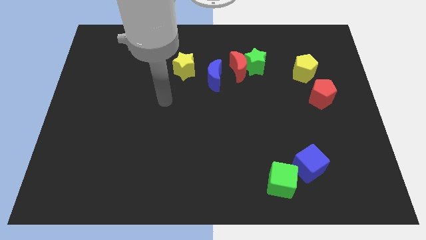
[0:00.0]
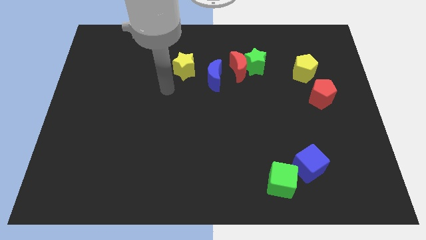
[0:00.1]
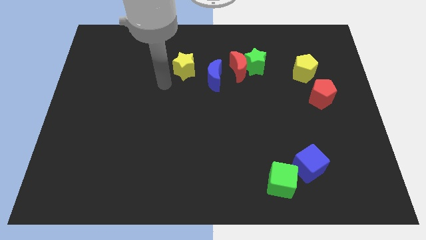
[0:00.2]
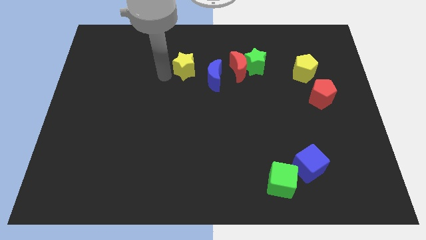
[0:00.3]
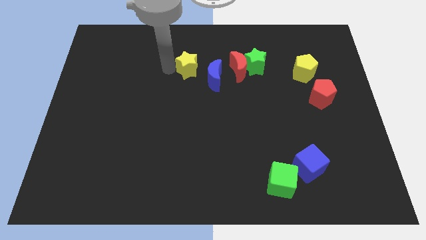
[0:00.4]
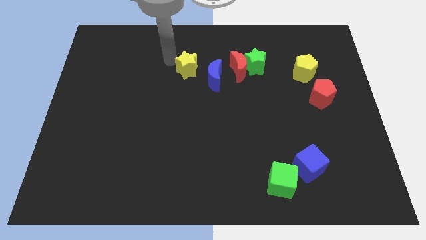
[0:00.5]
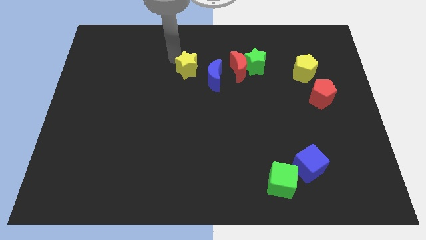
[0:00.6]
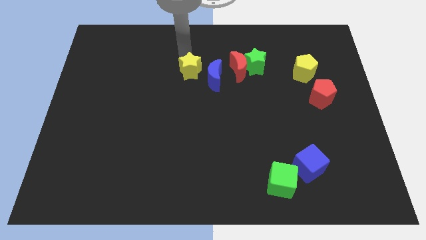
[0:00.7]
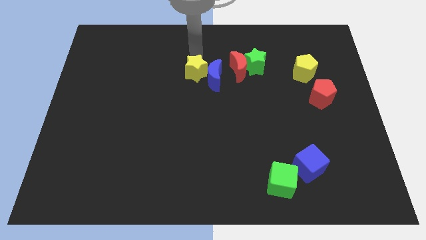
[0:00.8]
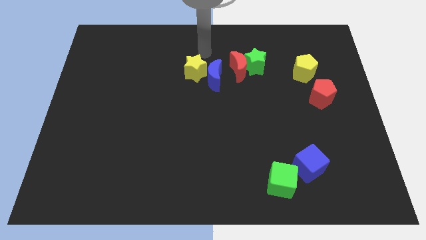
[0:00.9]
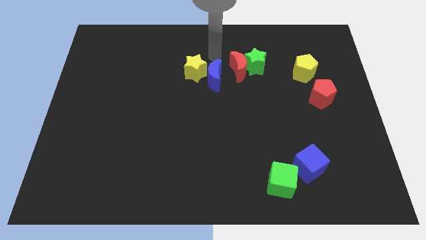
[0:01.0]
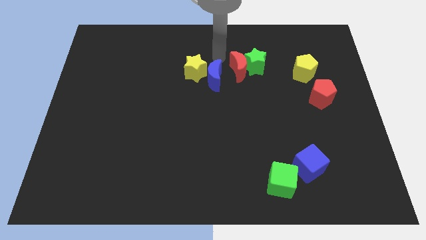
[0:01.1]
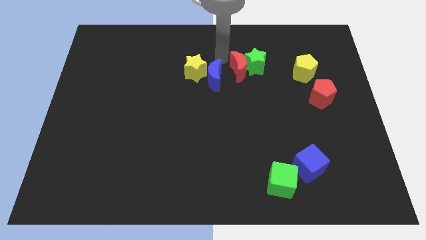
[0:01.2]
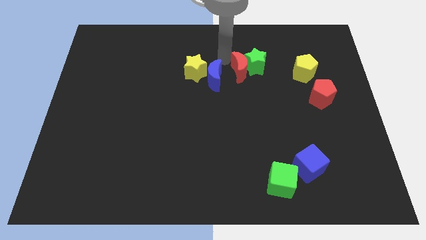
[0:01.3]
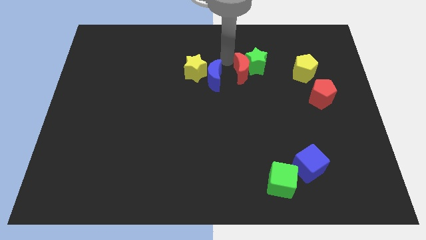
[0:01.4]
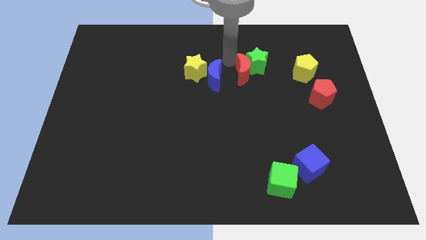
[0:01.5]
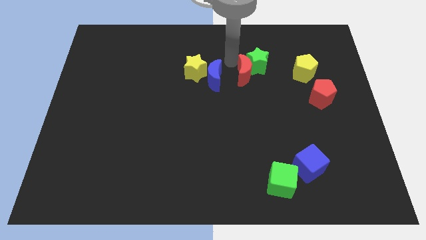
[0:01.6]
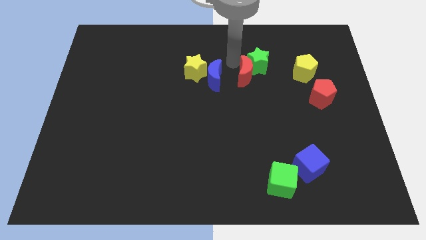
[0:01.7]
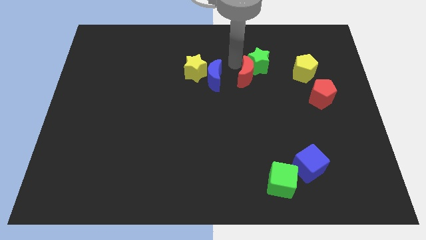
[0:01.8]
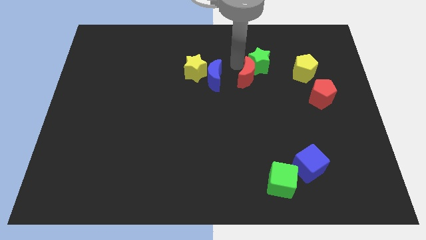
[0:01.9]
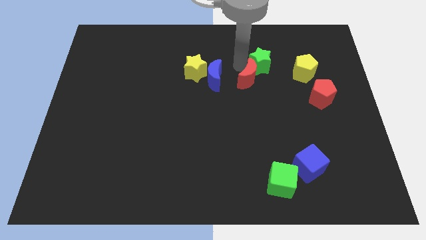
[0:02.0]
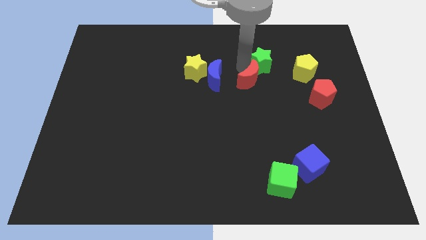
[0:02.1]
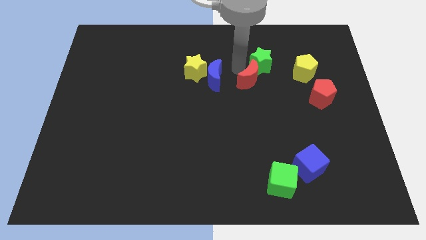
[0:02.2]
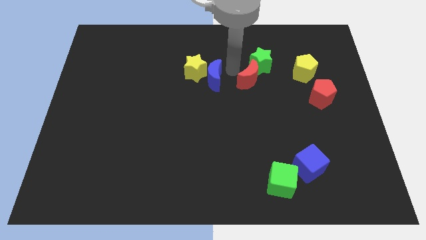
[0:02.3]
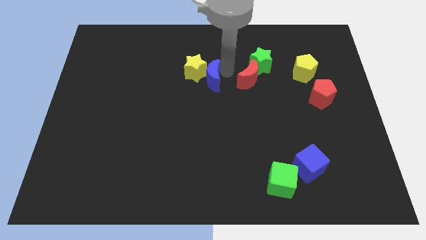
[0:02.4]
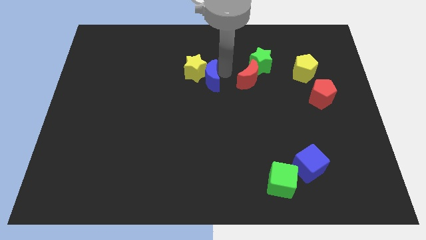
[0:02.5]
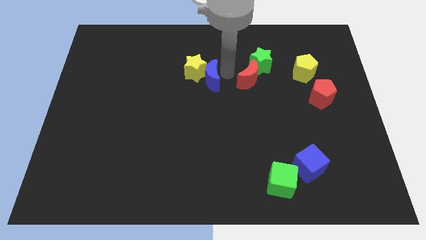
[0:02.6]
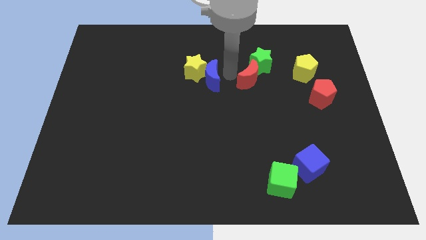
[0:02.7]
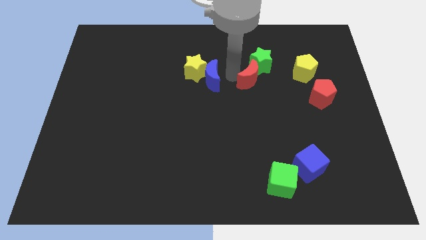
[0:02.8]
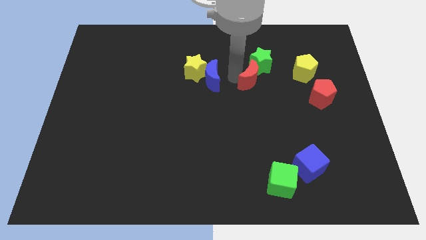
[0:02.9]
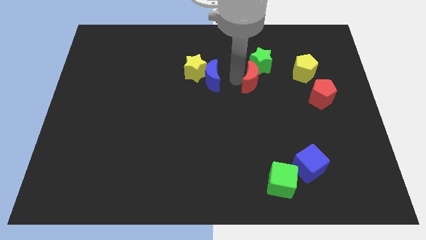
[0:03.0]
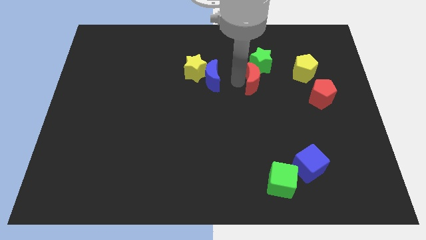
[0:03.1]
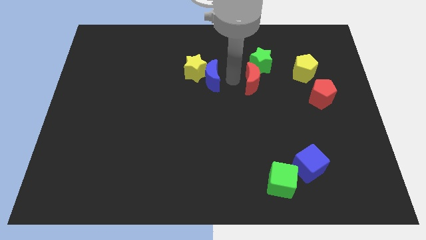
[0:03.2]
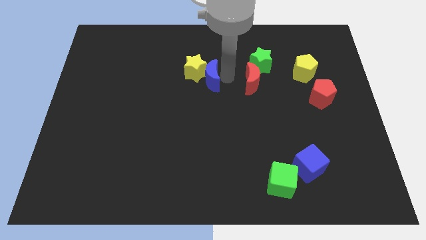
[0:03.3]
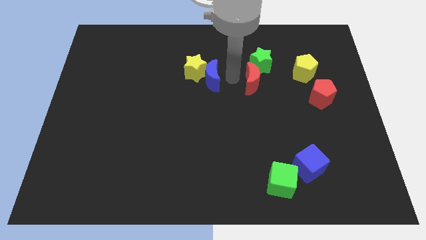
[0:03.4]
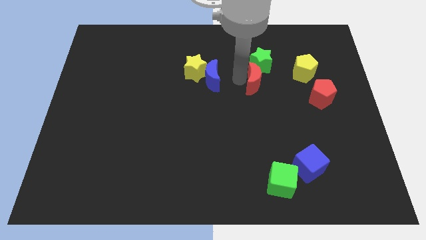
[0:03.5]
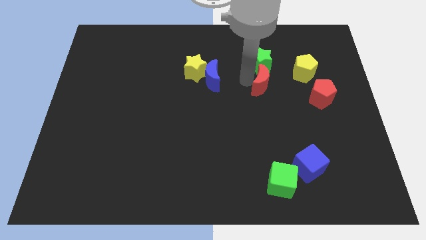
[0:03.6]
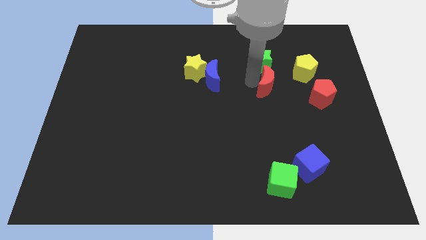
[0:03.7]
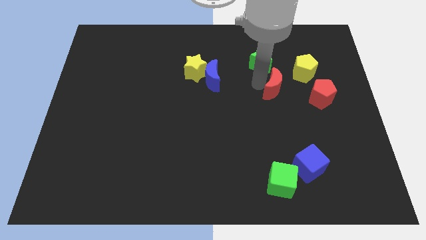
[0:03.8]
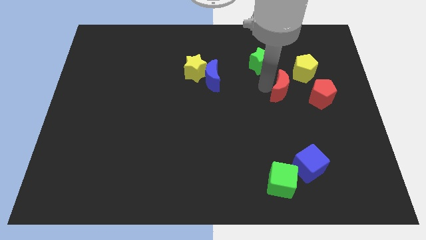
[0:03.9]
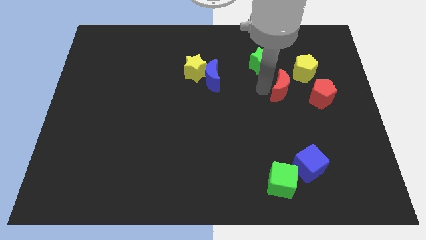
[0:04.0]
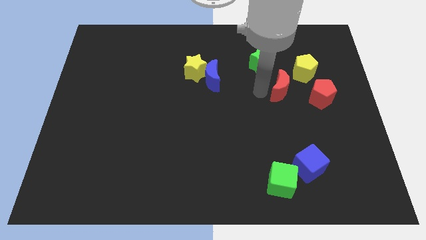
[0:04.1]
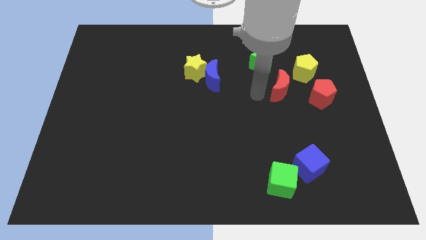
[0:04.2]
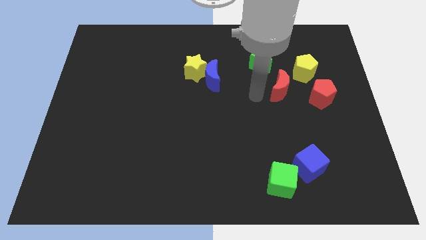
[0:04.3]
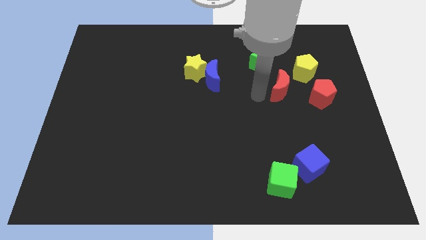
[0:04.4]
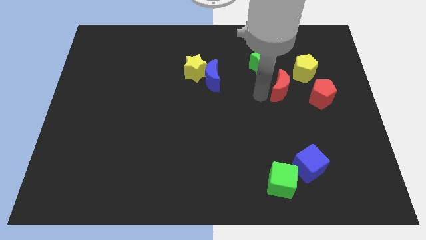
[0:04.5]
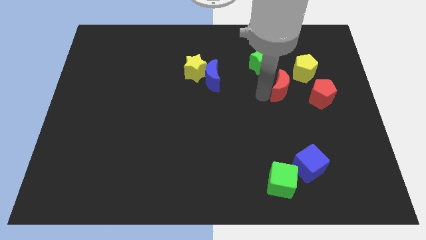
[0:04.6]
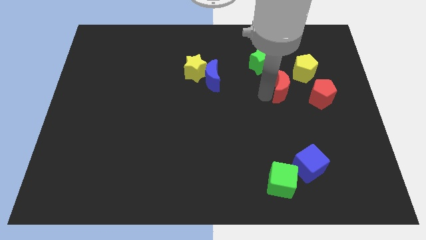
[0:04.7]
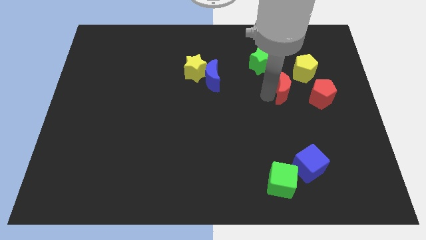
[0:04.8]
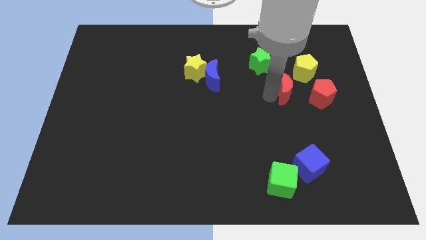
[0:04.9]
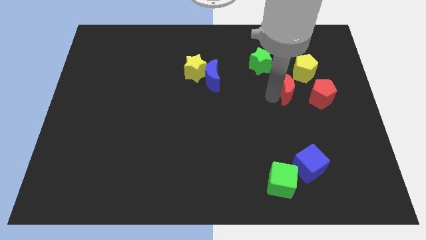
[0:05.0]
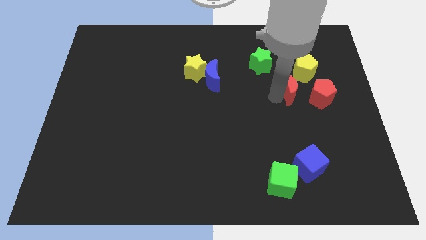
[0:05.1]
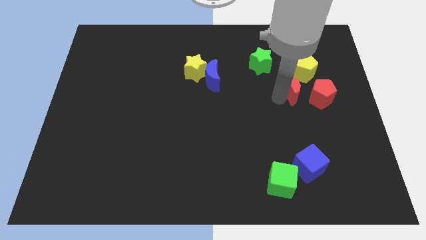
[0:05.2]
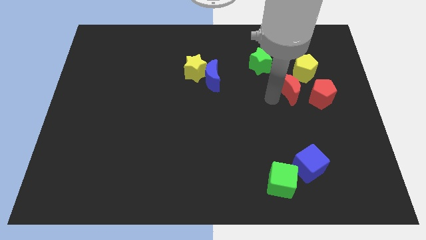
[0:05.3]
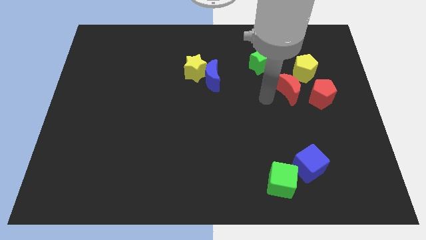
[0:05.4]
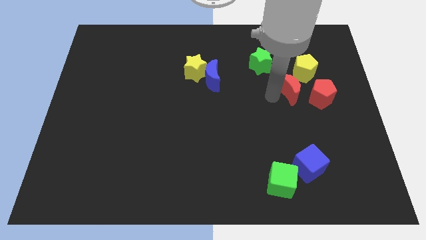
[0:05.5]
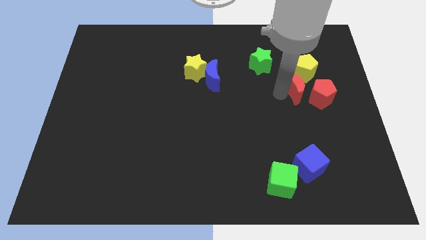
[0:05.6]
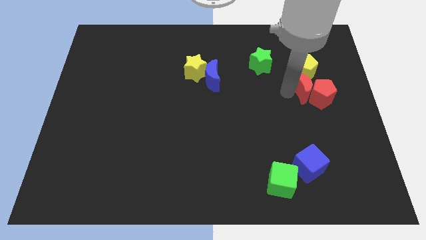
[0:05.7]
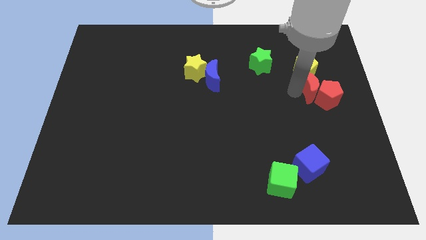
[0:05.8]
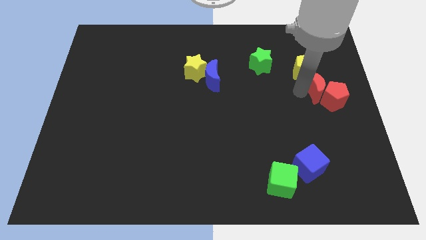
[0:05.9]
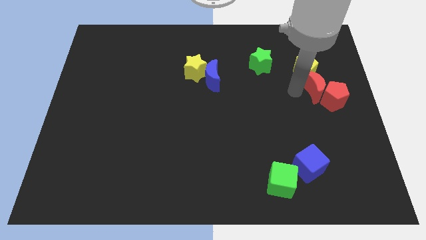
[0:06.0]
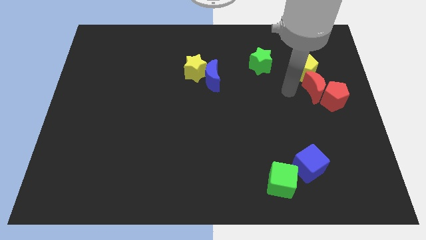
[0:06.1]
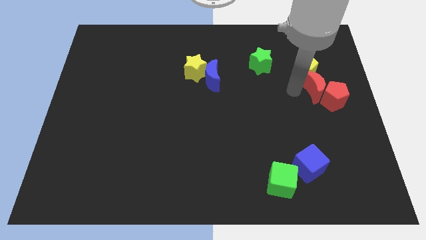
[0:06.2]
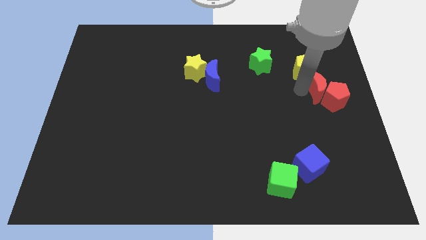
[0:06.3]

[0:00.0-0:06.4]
put the red moon to the right side of the board
